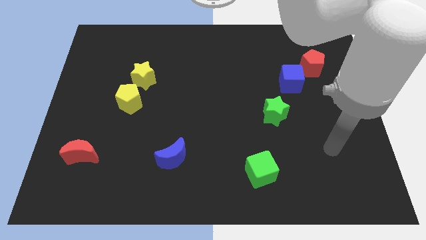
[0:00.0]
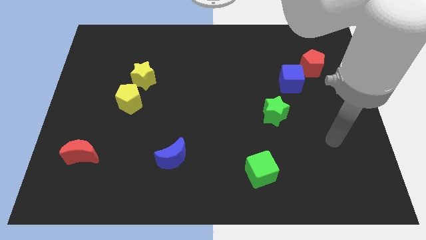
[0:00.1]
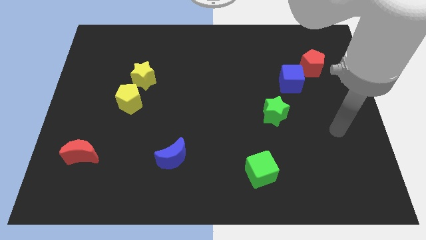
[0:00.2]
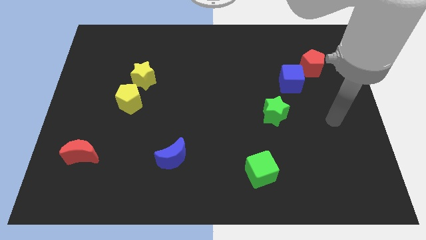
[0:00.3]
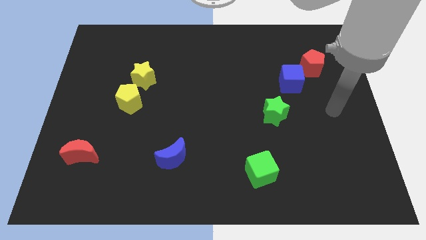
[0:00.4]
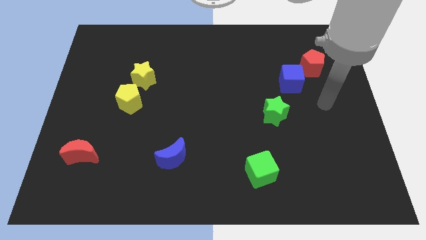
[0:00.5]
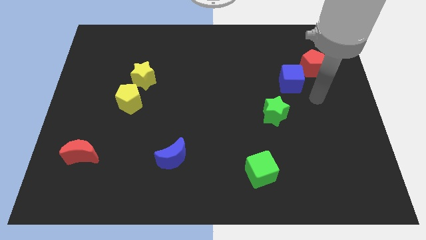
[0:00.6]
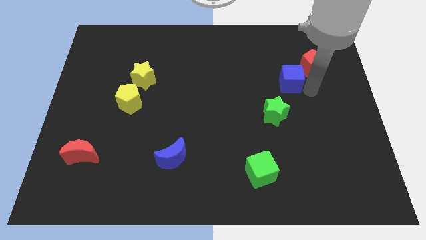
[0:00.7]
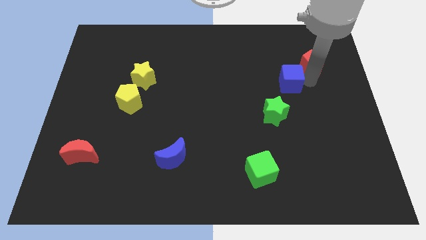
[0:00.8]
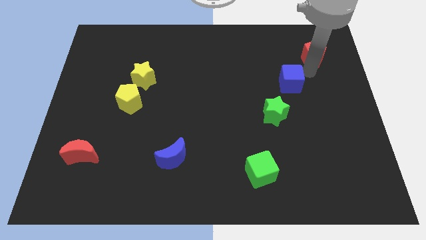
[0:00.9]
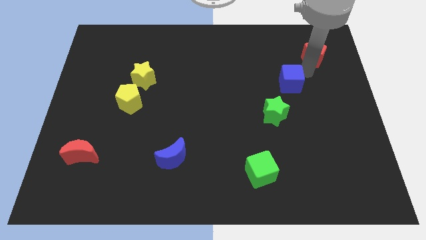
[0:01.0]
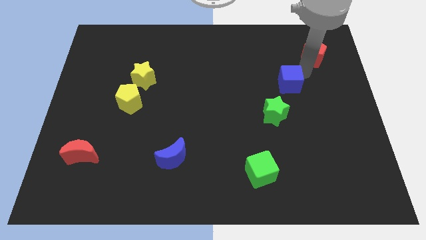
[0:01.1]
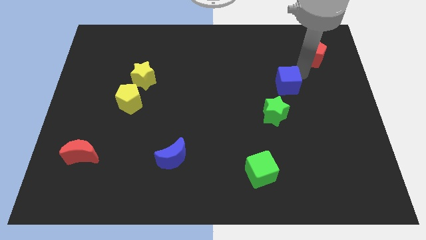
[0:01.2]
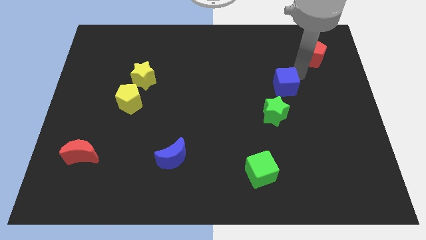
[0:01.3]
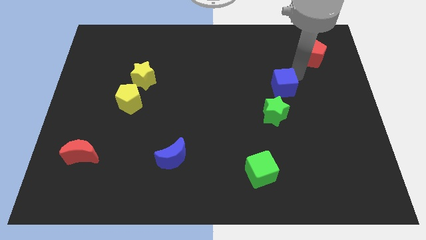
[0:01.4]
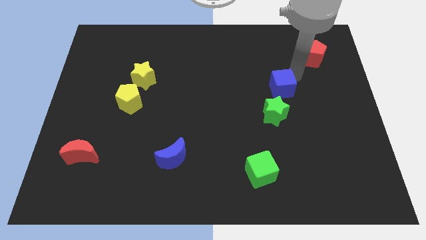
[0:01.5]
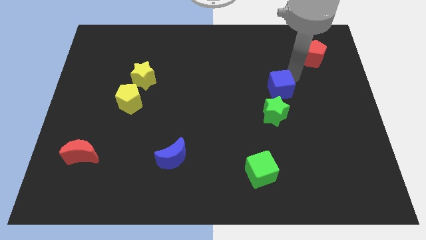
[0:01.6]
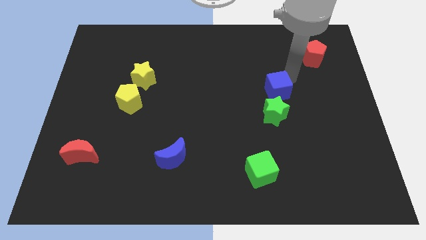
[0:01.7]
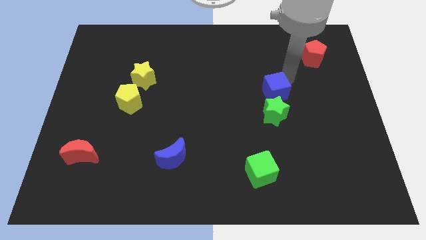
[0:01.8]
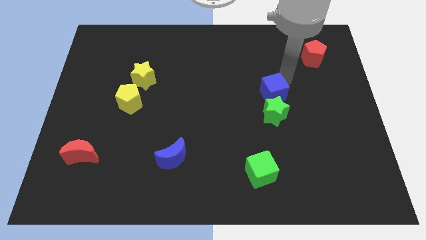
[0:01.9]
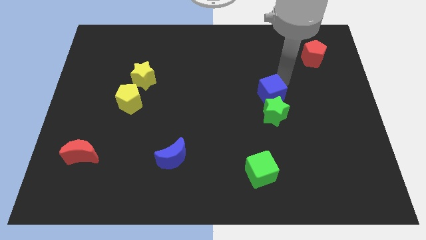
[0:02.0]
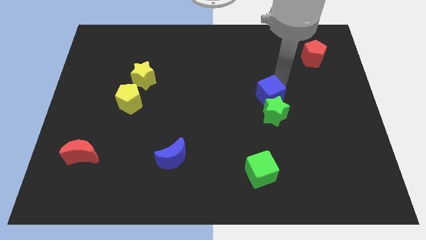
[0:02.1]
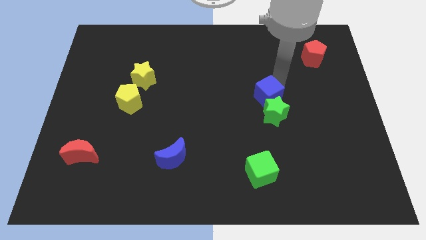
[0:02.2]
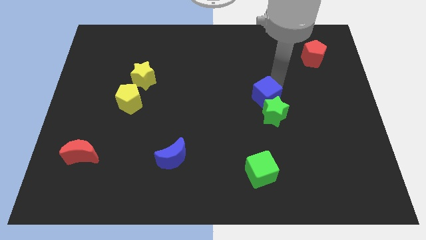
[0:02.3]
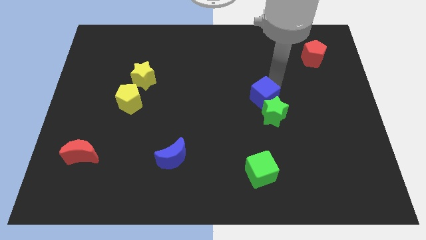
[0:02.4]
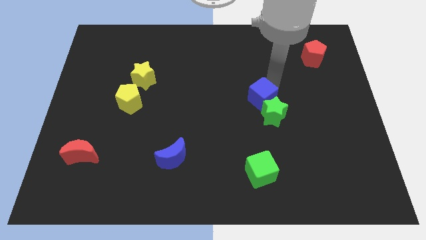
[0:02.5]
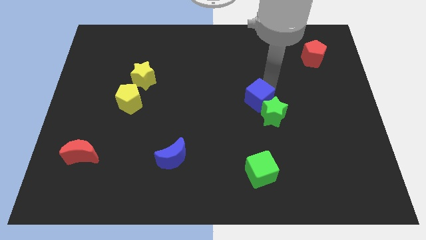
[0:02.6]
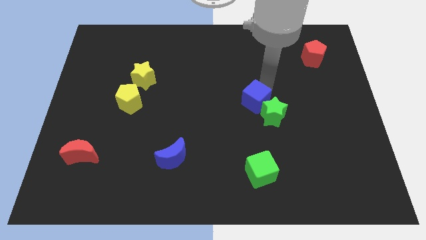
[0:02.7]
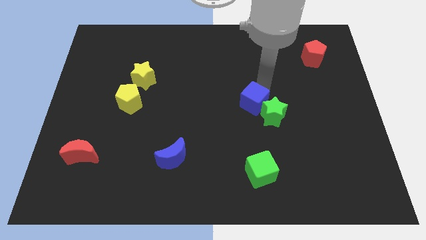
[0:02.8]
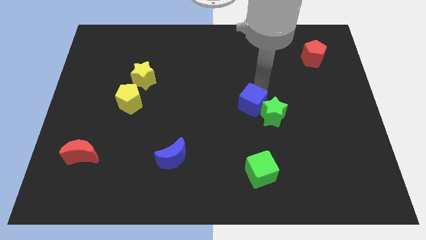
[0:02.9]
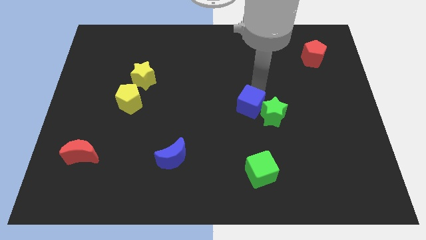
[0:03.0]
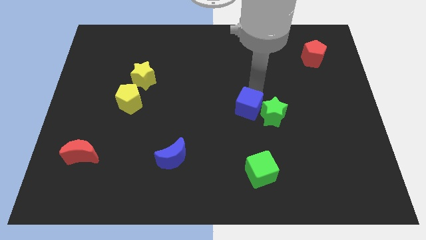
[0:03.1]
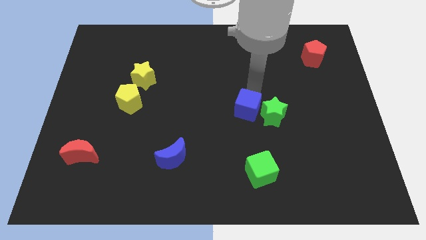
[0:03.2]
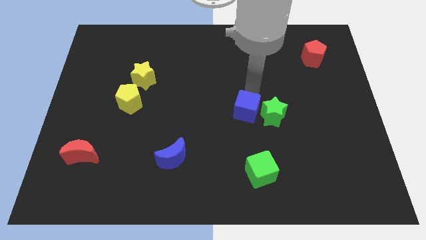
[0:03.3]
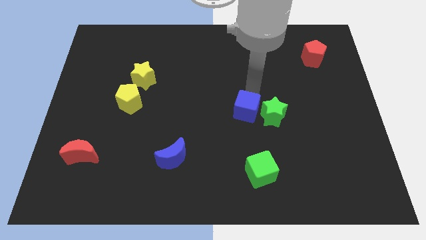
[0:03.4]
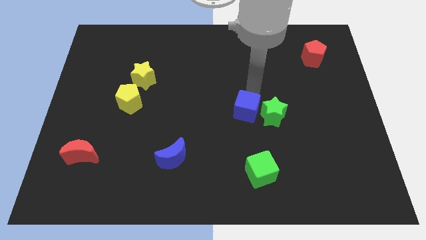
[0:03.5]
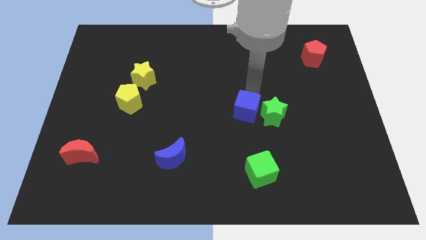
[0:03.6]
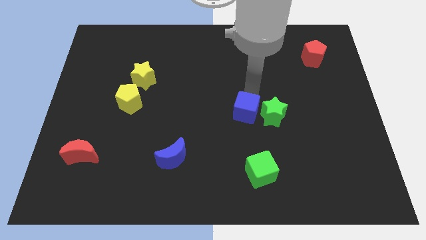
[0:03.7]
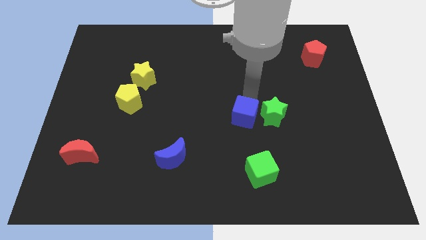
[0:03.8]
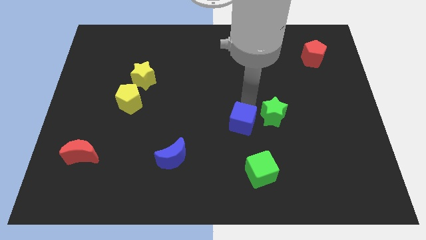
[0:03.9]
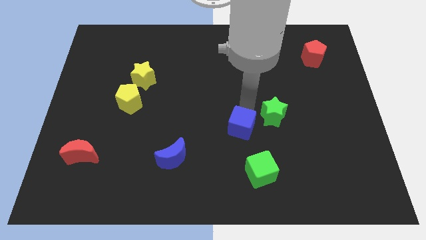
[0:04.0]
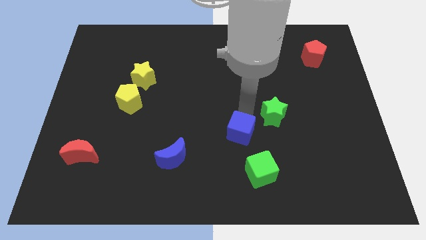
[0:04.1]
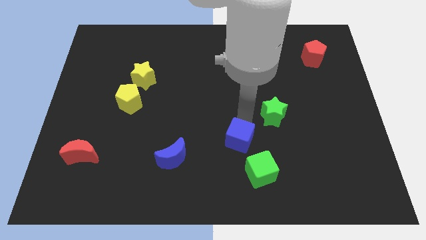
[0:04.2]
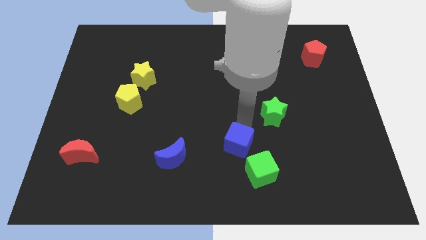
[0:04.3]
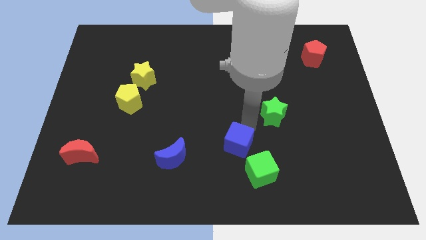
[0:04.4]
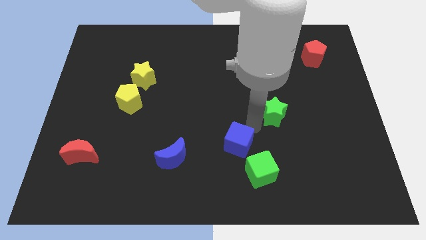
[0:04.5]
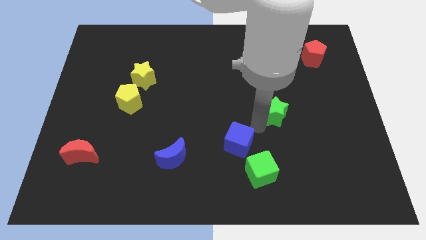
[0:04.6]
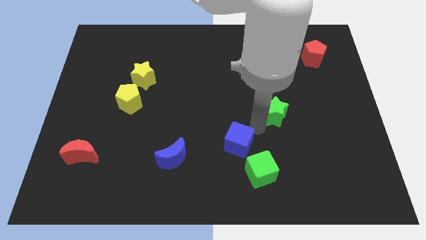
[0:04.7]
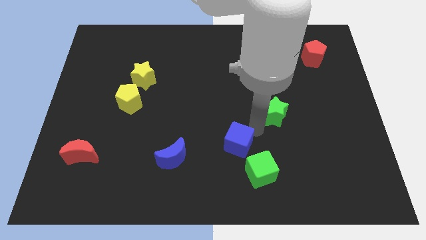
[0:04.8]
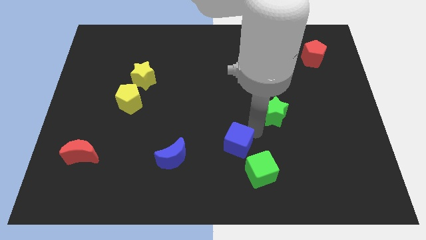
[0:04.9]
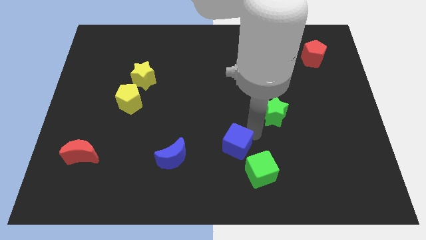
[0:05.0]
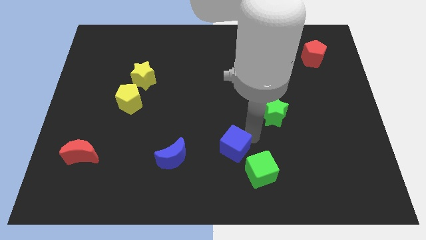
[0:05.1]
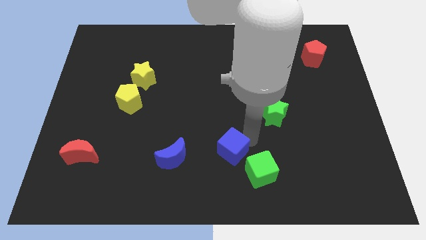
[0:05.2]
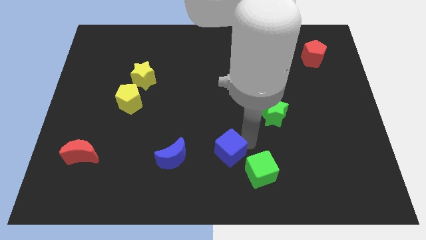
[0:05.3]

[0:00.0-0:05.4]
move the blue cube just left of the green cube

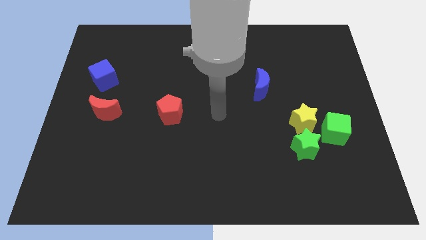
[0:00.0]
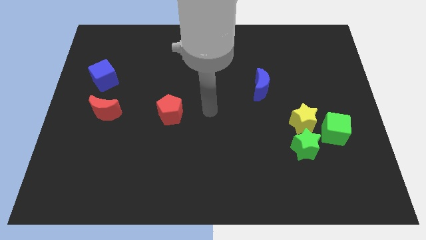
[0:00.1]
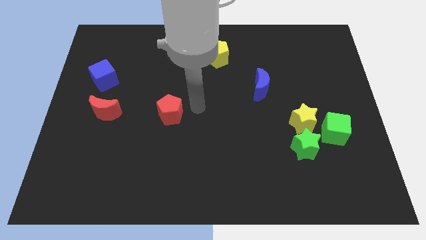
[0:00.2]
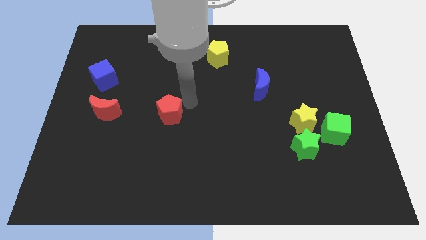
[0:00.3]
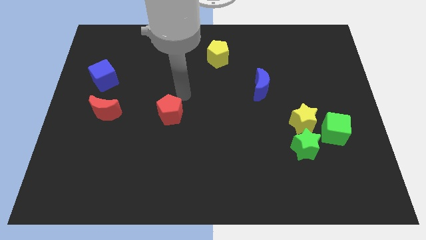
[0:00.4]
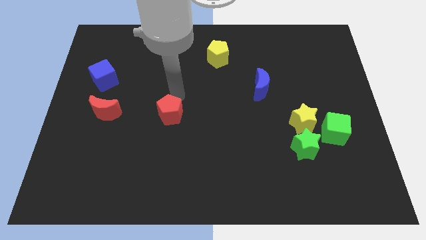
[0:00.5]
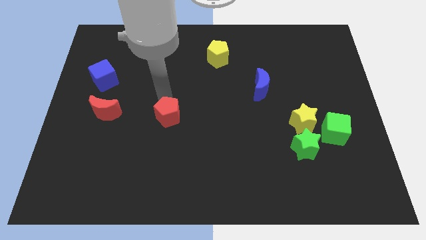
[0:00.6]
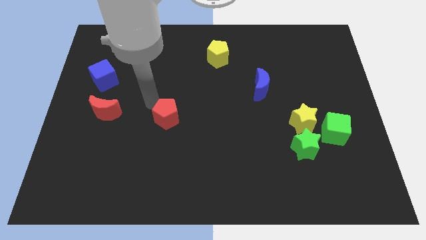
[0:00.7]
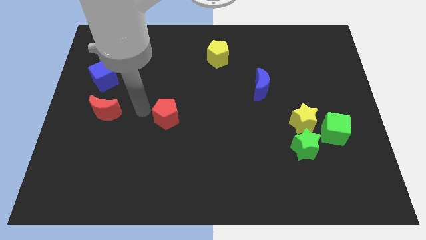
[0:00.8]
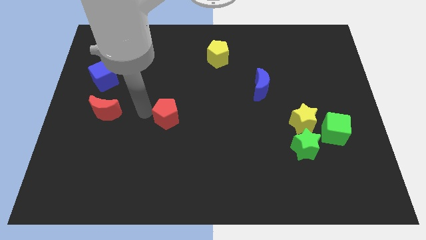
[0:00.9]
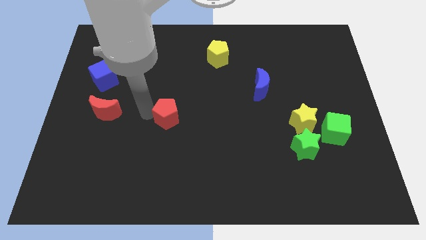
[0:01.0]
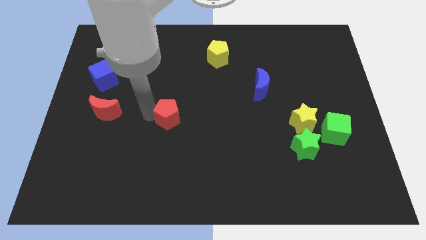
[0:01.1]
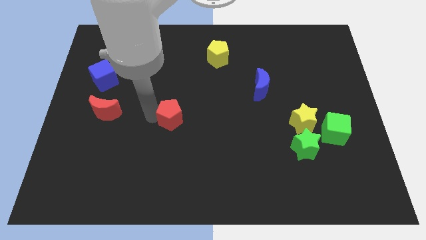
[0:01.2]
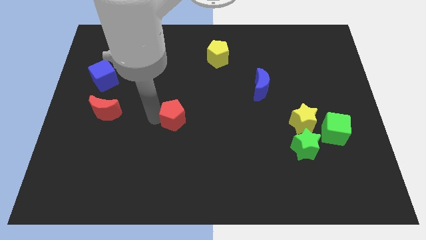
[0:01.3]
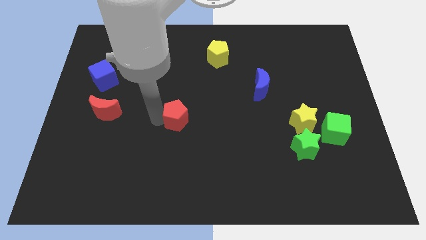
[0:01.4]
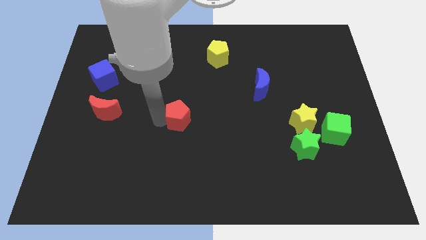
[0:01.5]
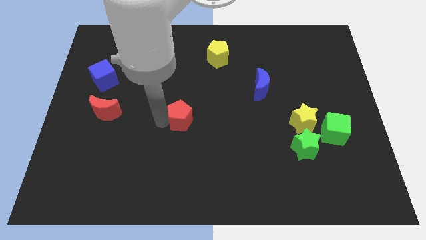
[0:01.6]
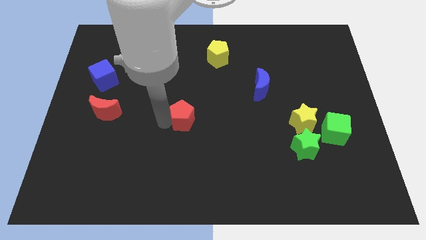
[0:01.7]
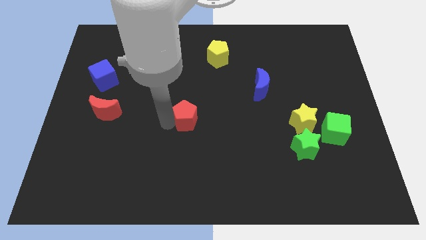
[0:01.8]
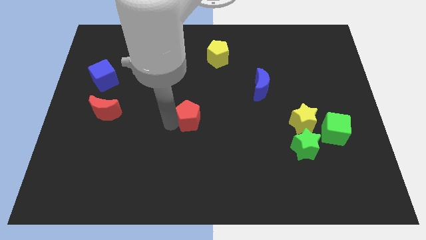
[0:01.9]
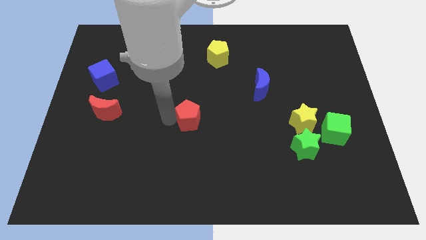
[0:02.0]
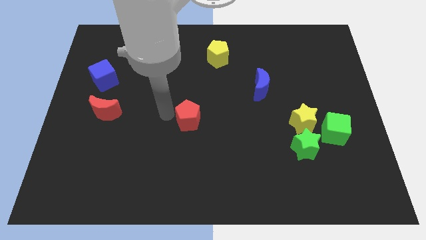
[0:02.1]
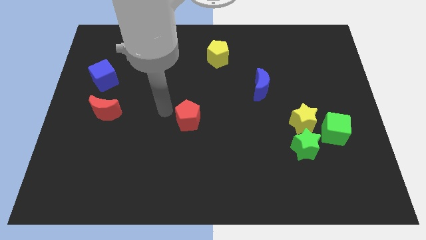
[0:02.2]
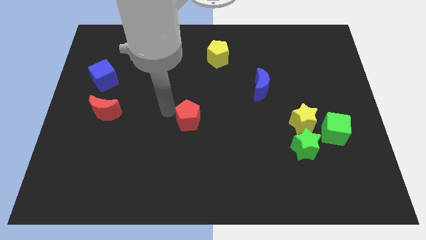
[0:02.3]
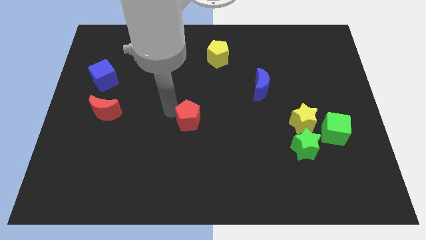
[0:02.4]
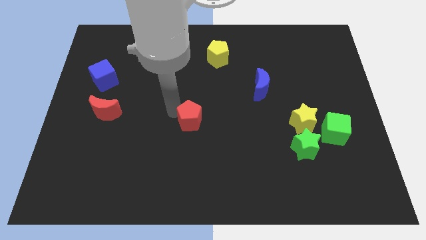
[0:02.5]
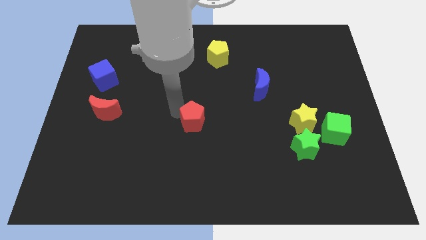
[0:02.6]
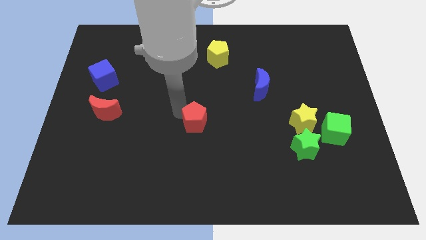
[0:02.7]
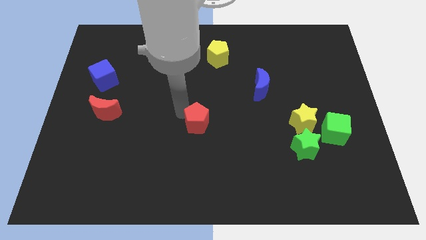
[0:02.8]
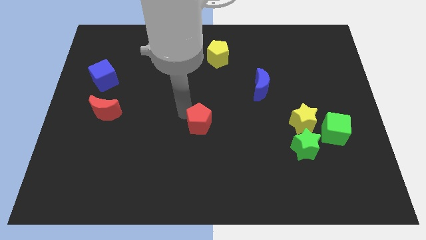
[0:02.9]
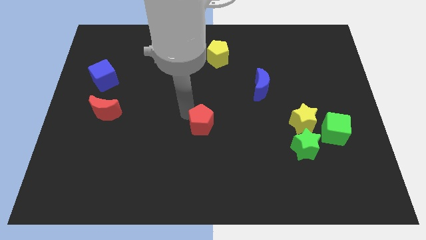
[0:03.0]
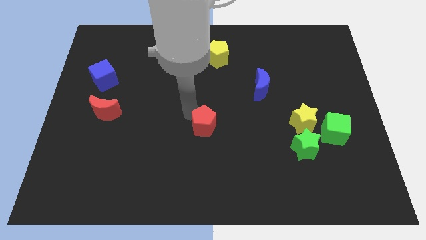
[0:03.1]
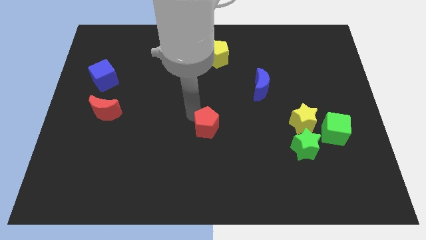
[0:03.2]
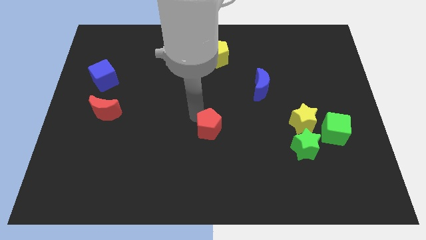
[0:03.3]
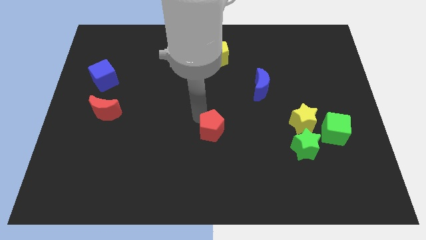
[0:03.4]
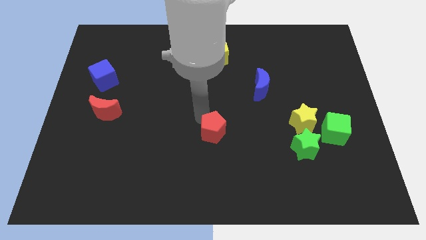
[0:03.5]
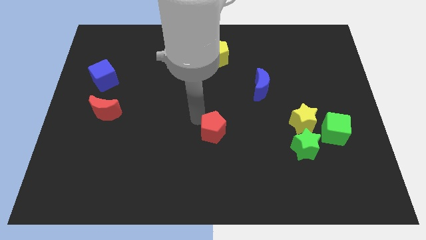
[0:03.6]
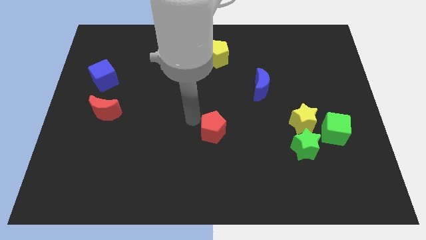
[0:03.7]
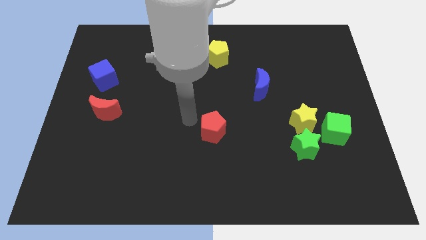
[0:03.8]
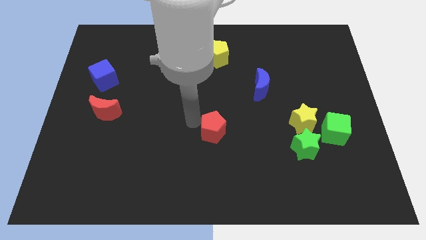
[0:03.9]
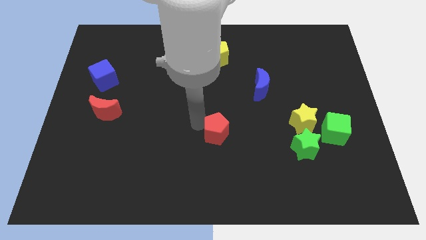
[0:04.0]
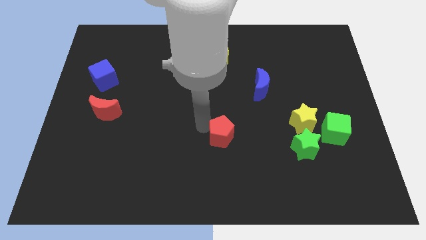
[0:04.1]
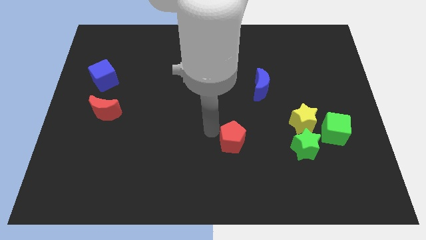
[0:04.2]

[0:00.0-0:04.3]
slide the red pentagon just left of the green star
